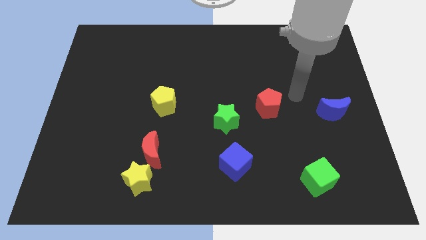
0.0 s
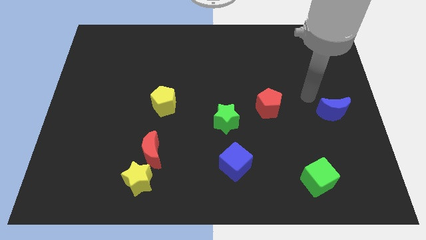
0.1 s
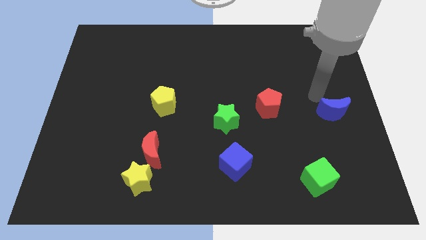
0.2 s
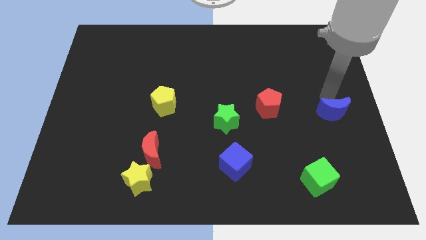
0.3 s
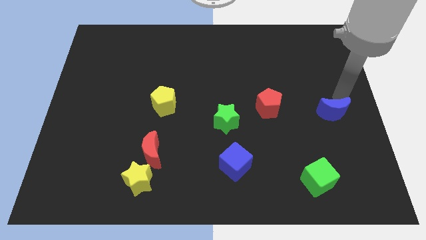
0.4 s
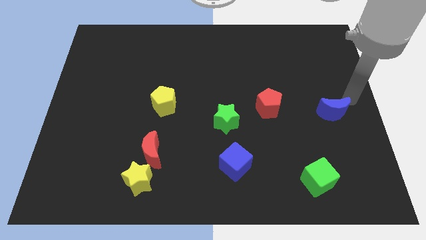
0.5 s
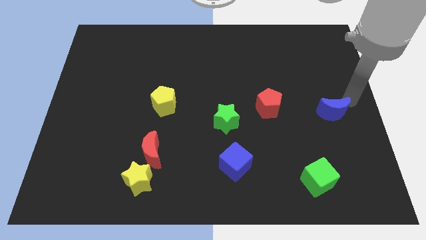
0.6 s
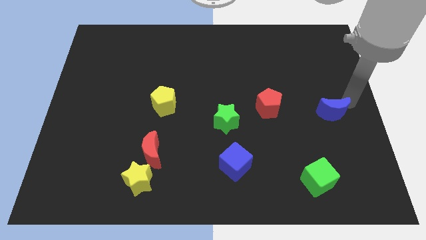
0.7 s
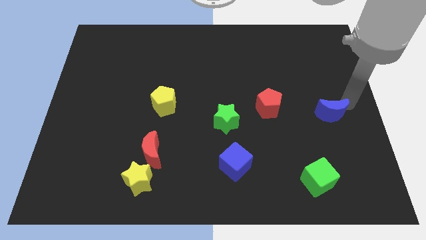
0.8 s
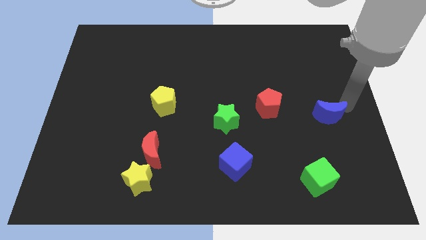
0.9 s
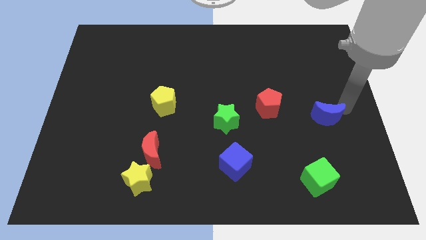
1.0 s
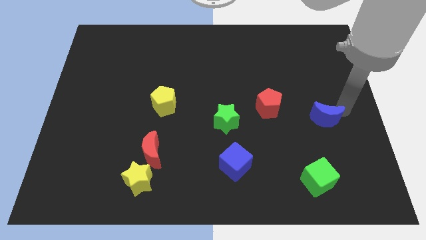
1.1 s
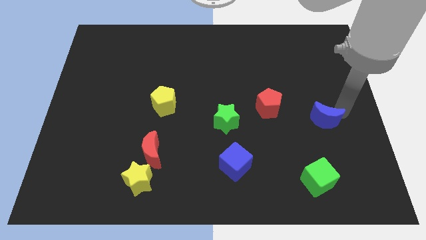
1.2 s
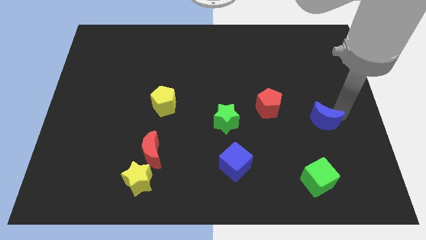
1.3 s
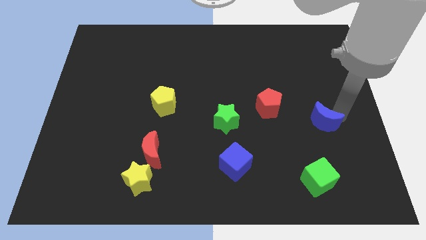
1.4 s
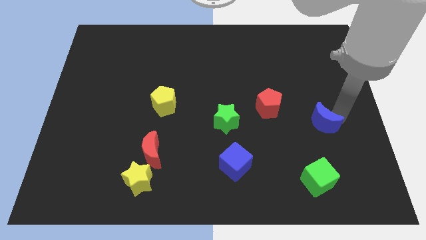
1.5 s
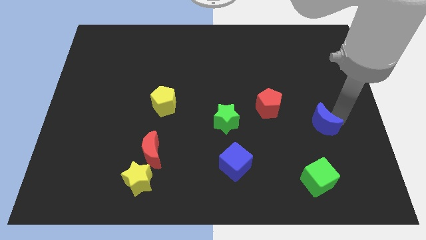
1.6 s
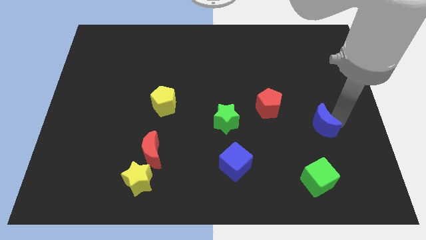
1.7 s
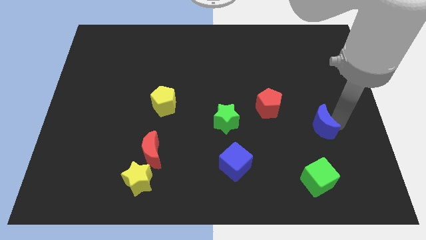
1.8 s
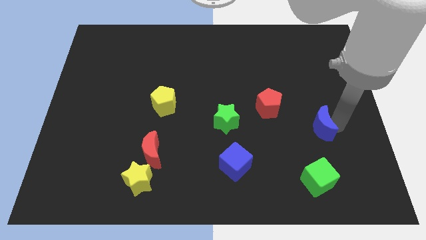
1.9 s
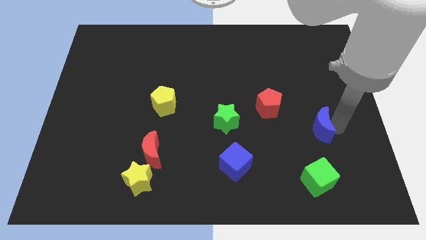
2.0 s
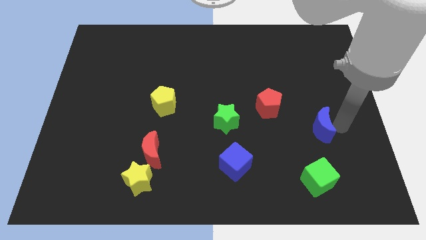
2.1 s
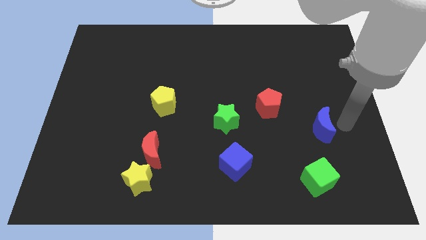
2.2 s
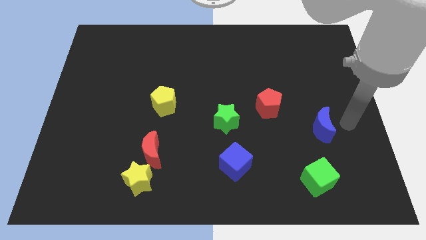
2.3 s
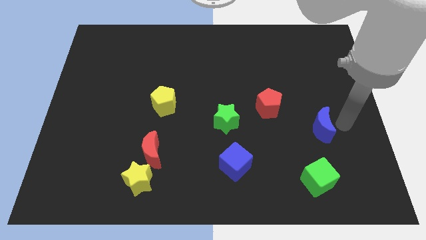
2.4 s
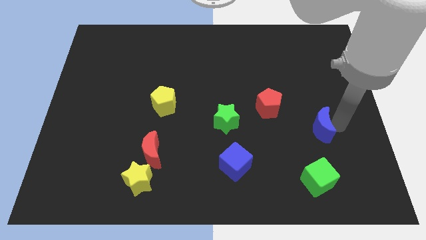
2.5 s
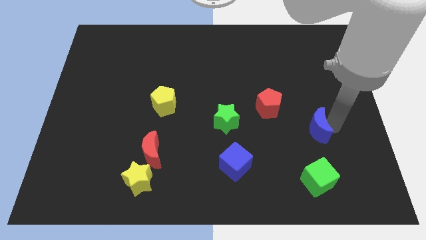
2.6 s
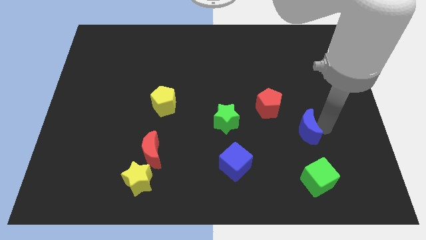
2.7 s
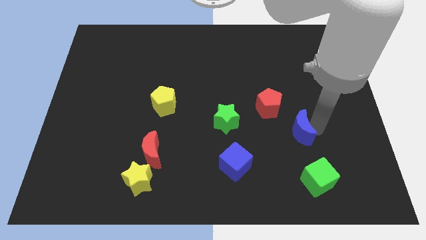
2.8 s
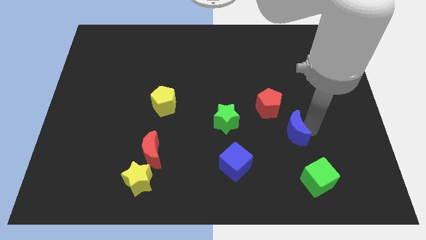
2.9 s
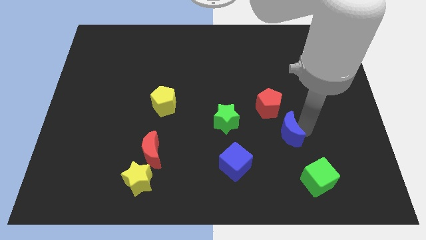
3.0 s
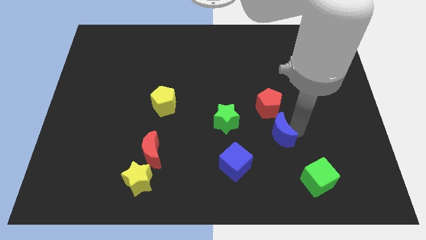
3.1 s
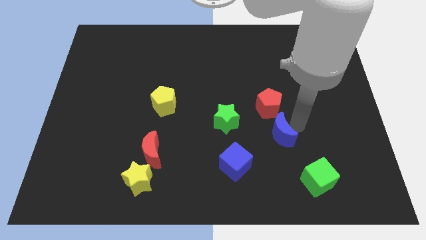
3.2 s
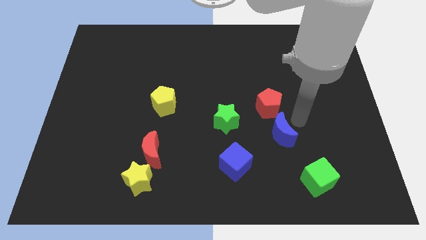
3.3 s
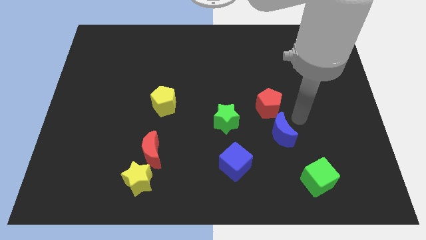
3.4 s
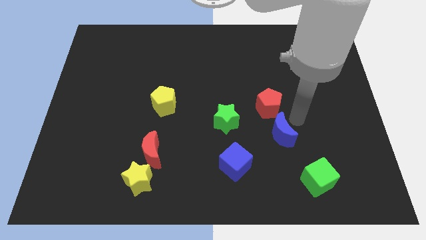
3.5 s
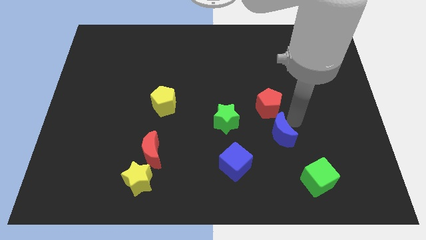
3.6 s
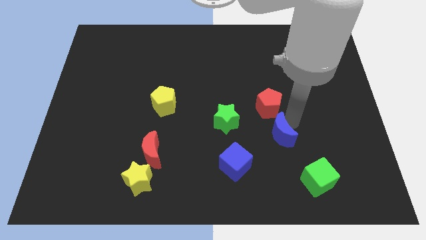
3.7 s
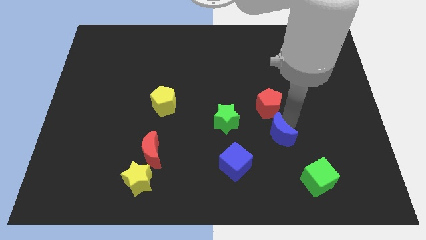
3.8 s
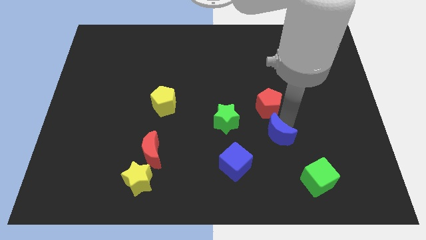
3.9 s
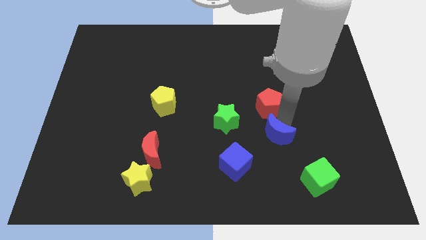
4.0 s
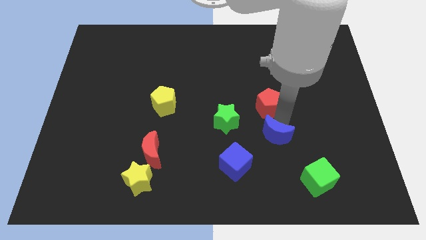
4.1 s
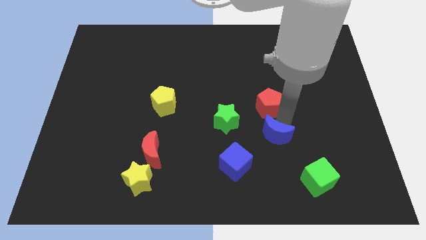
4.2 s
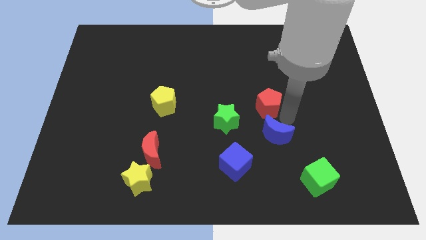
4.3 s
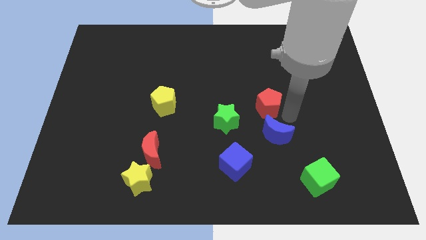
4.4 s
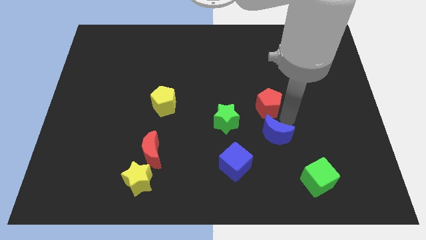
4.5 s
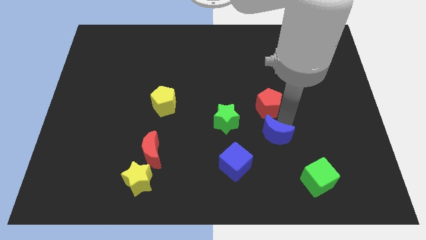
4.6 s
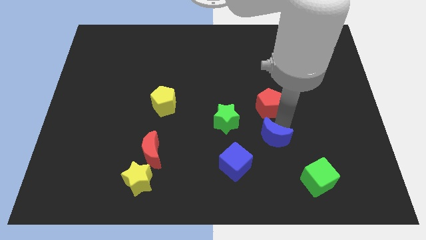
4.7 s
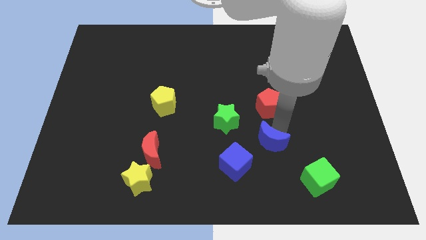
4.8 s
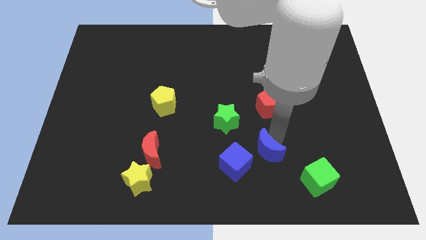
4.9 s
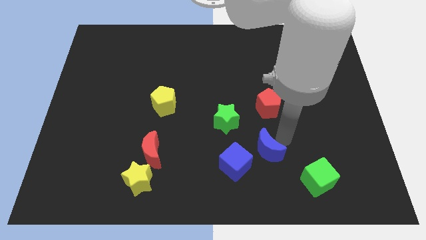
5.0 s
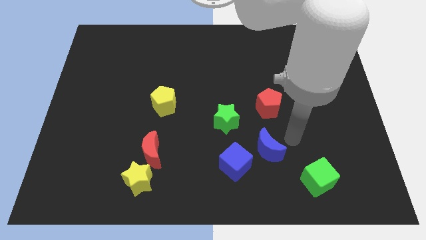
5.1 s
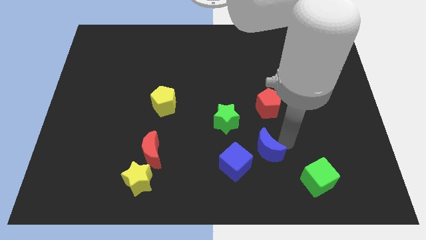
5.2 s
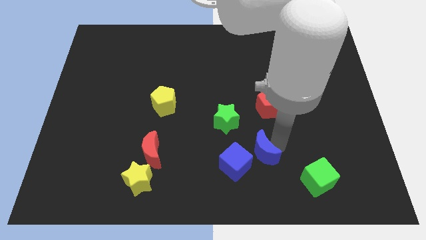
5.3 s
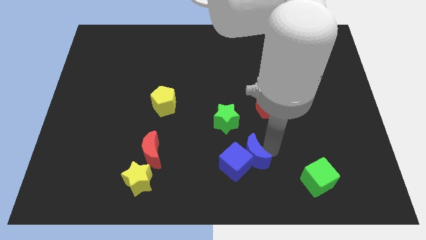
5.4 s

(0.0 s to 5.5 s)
slide the blue moon towards the blue cube

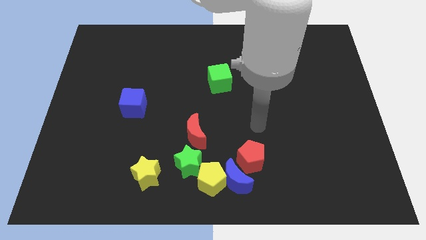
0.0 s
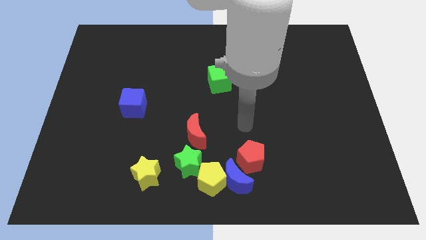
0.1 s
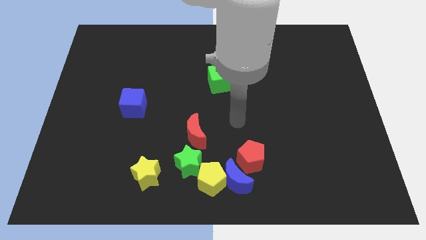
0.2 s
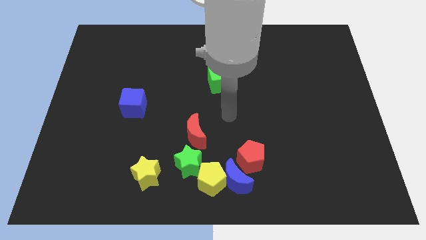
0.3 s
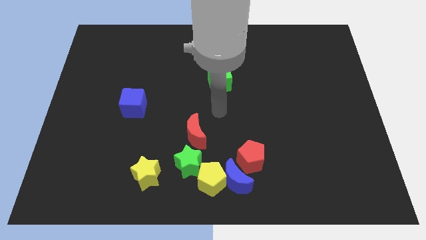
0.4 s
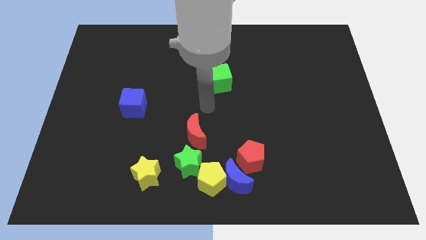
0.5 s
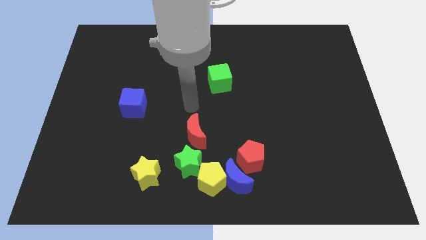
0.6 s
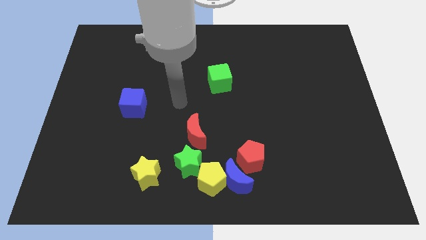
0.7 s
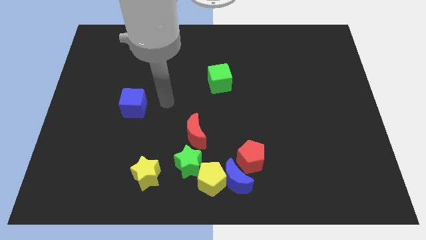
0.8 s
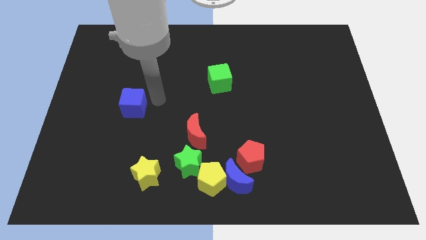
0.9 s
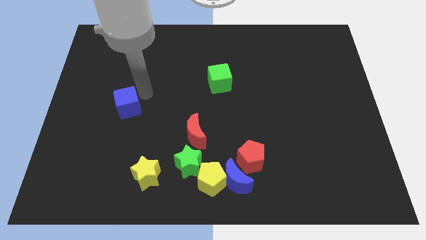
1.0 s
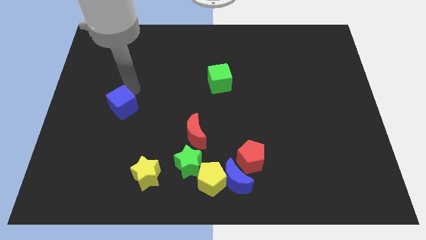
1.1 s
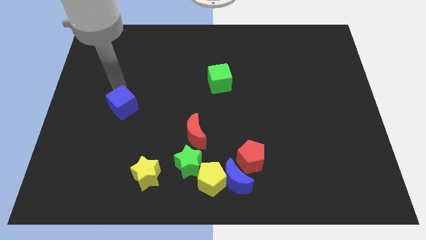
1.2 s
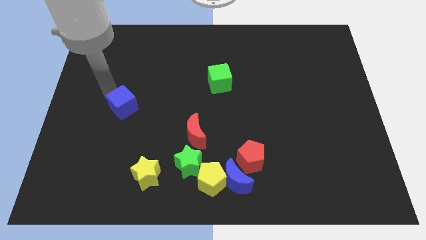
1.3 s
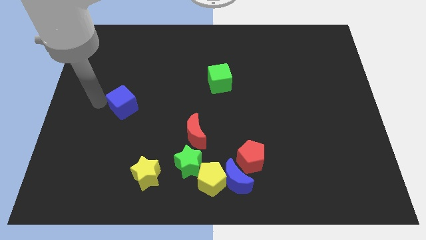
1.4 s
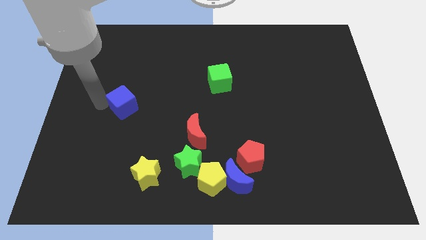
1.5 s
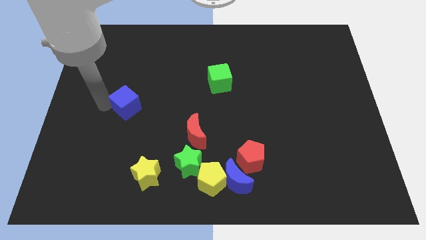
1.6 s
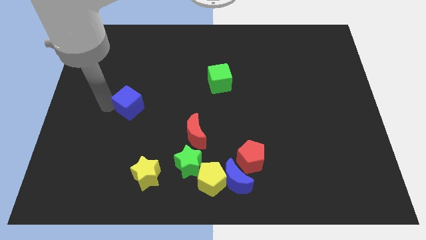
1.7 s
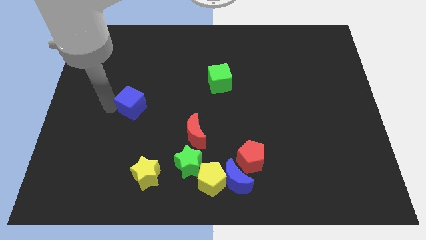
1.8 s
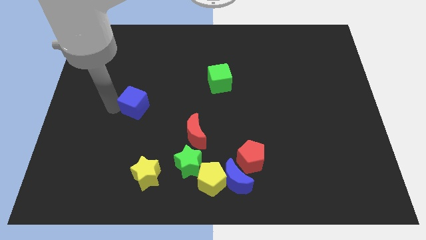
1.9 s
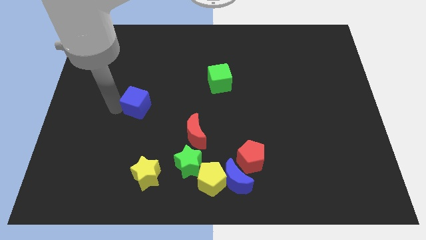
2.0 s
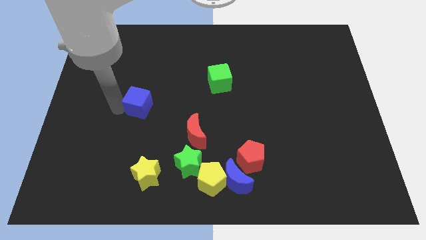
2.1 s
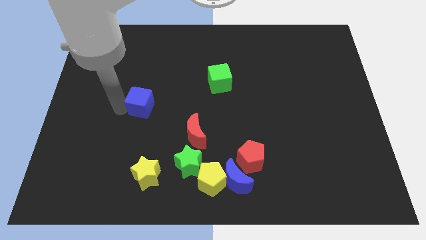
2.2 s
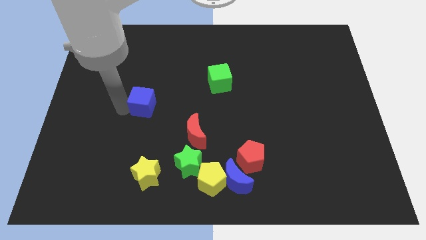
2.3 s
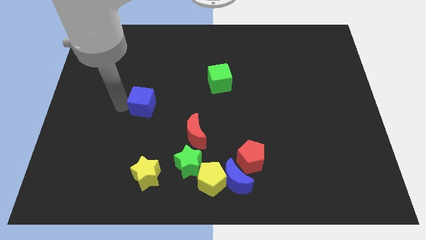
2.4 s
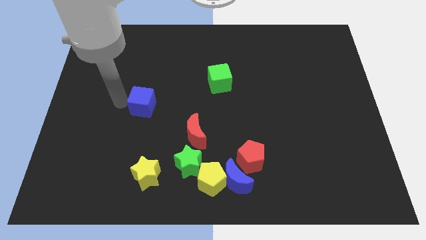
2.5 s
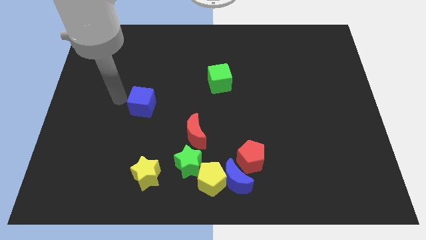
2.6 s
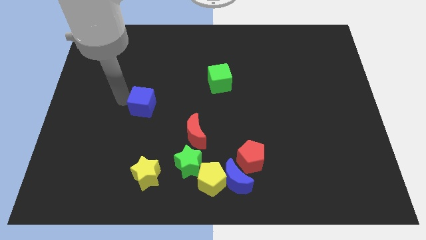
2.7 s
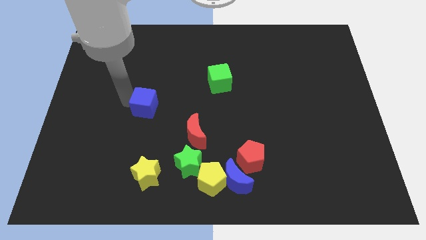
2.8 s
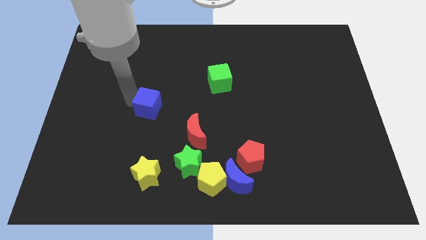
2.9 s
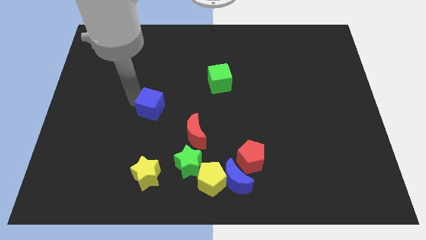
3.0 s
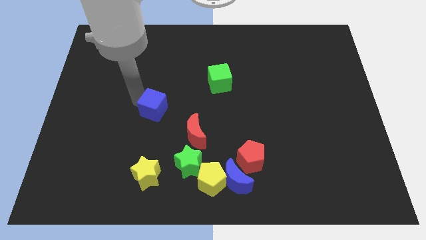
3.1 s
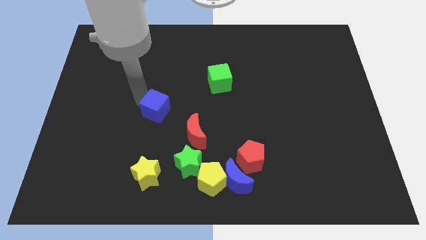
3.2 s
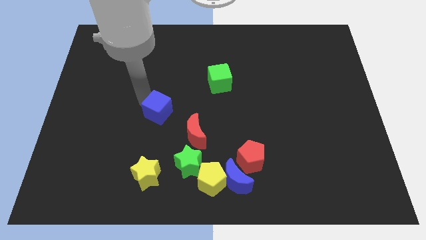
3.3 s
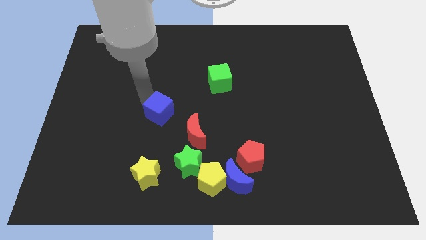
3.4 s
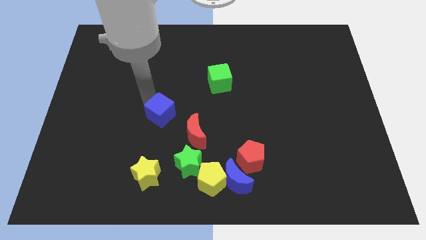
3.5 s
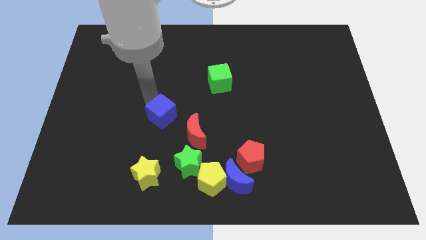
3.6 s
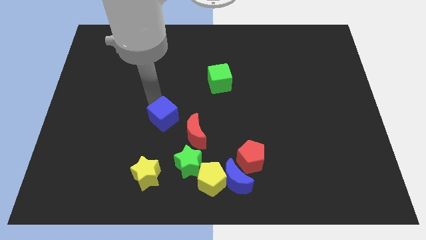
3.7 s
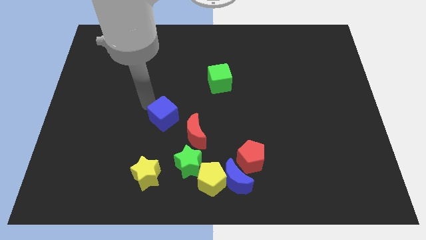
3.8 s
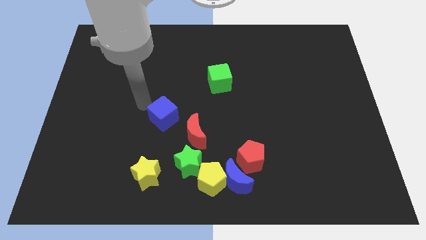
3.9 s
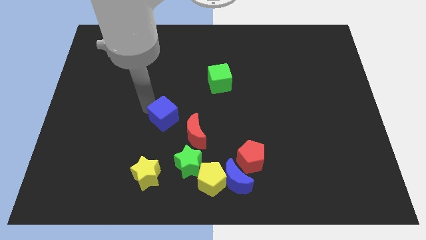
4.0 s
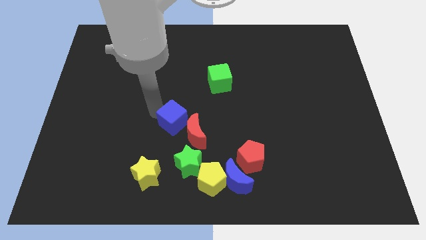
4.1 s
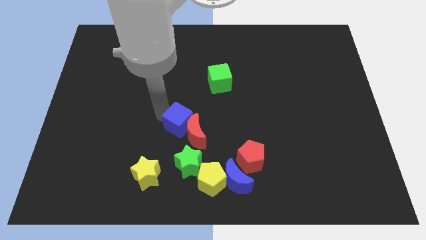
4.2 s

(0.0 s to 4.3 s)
push the blue cube close to the red moon
